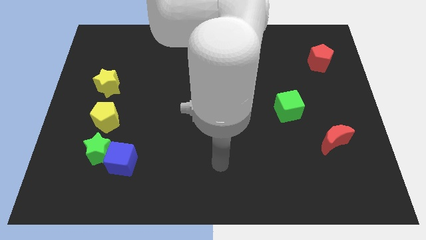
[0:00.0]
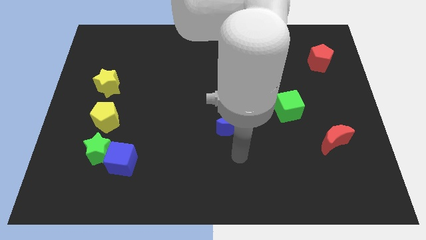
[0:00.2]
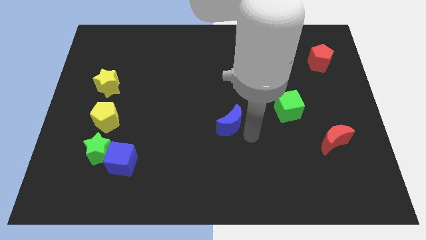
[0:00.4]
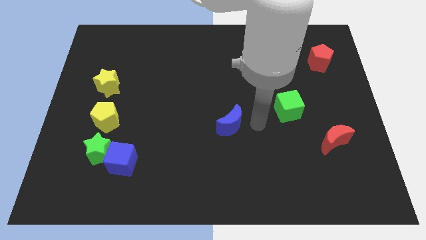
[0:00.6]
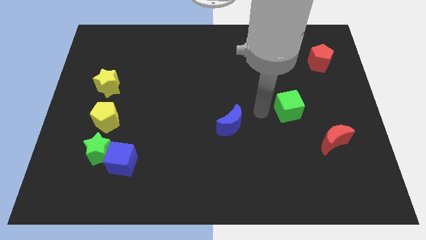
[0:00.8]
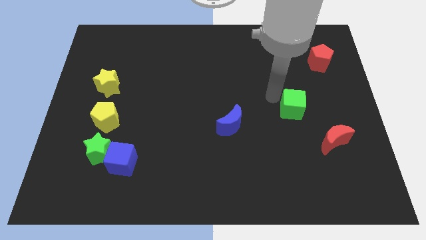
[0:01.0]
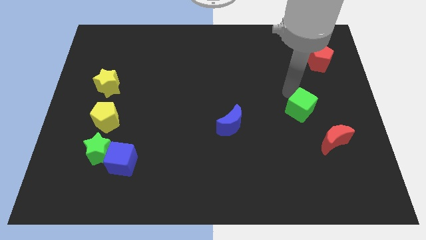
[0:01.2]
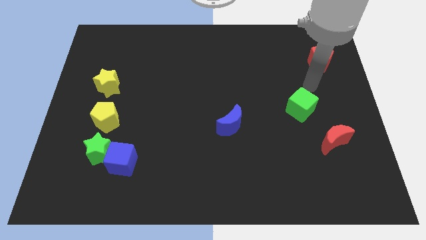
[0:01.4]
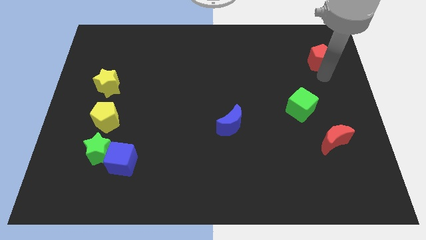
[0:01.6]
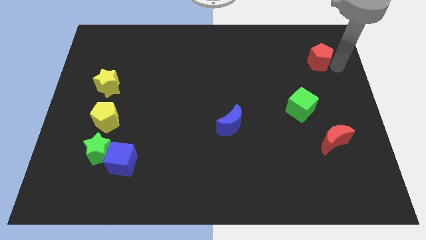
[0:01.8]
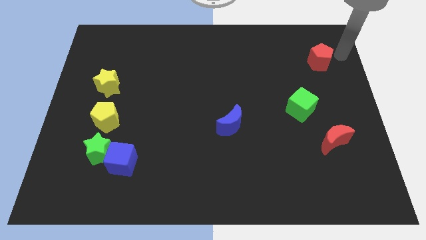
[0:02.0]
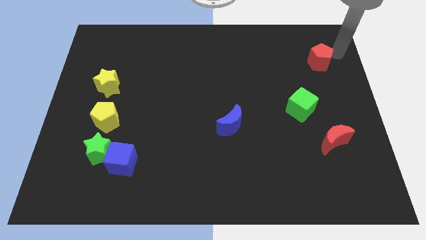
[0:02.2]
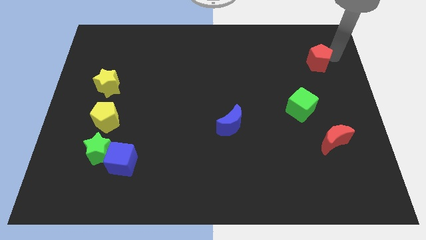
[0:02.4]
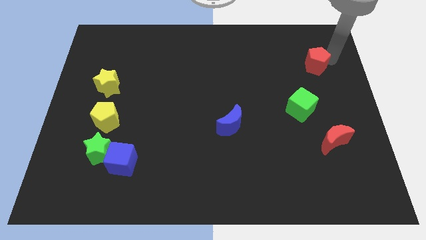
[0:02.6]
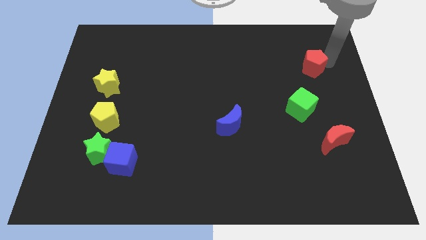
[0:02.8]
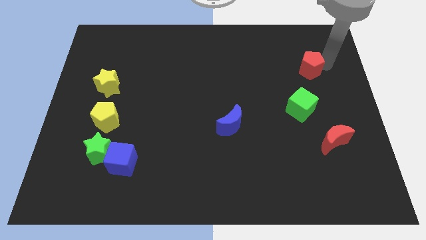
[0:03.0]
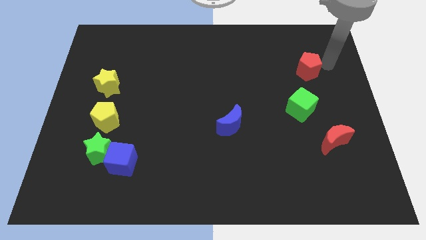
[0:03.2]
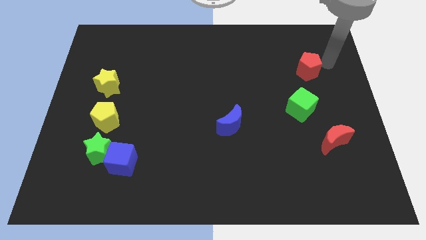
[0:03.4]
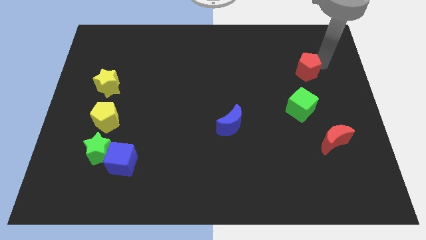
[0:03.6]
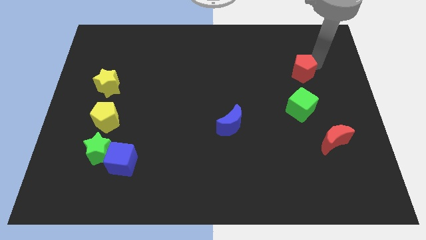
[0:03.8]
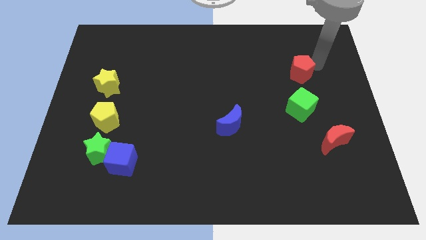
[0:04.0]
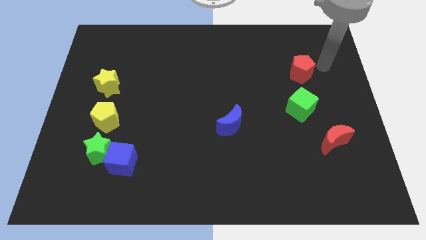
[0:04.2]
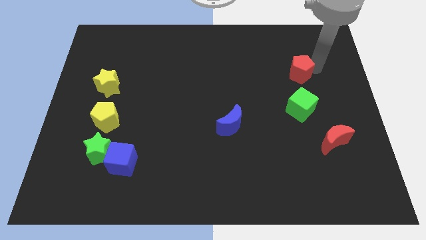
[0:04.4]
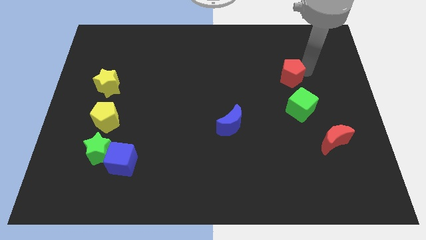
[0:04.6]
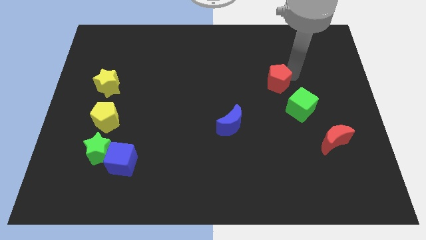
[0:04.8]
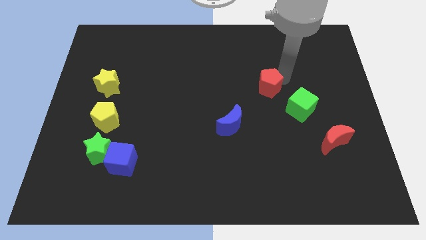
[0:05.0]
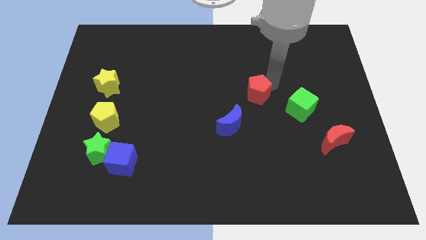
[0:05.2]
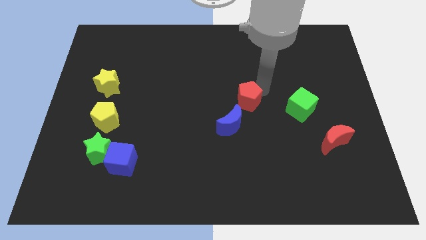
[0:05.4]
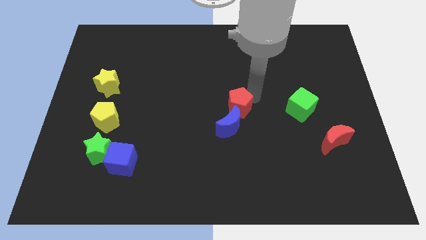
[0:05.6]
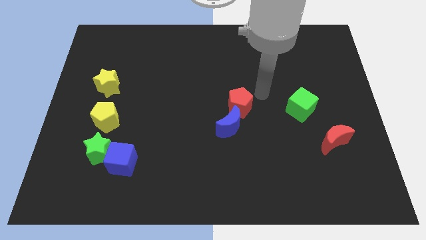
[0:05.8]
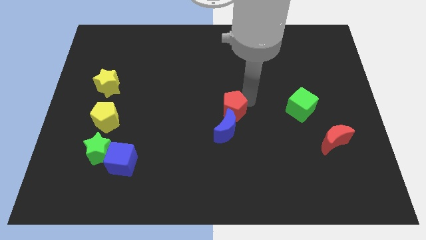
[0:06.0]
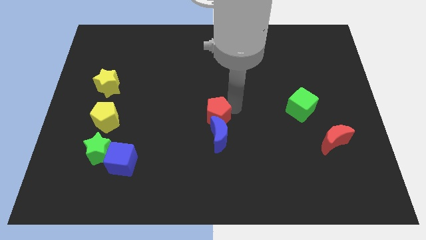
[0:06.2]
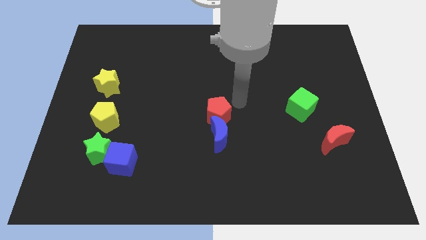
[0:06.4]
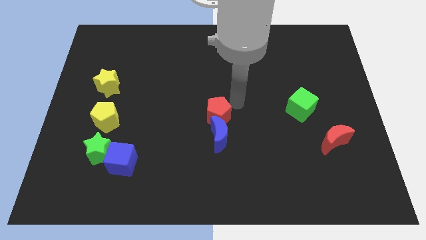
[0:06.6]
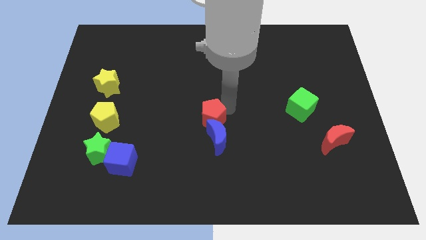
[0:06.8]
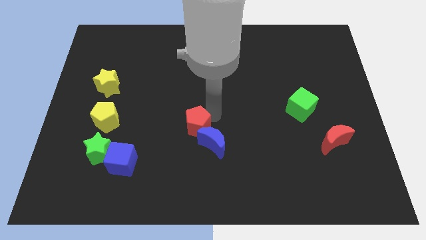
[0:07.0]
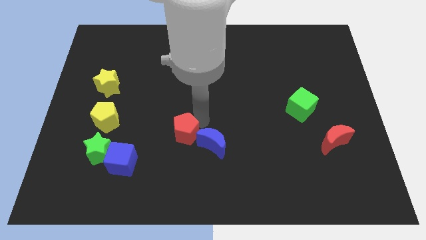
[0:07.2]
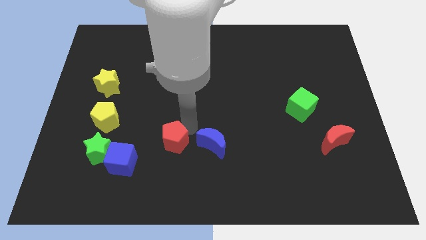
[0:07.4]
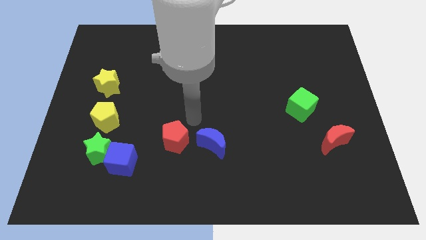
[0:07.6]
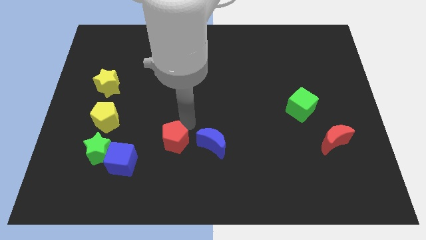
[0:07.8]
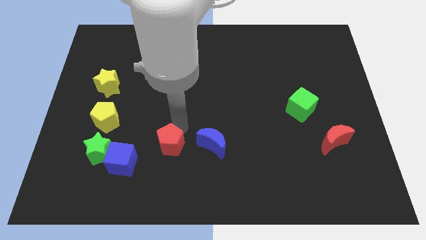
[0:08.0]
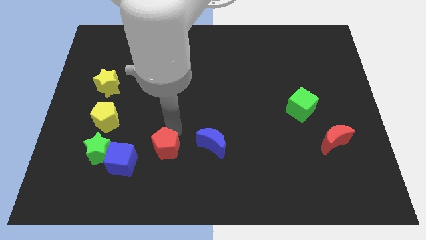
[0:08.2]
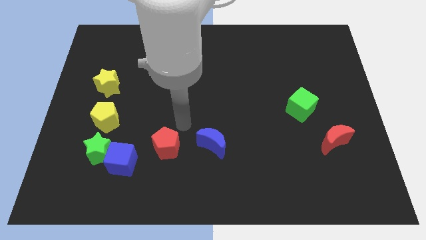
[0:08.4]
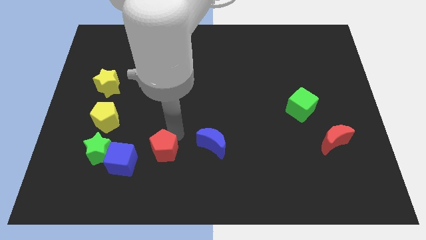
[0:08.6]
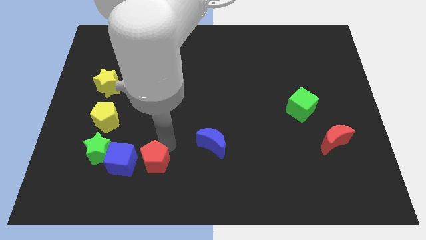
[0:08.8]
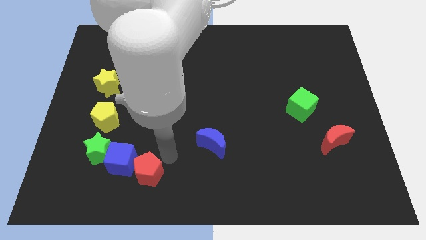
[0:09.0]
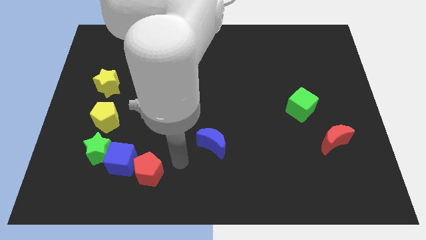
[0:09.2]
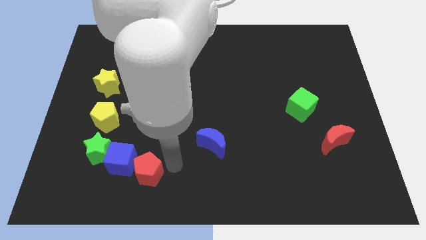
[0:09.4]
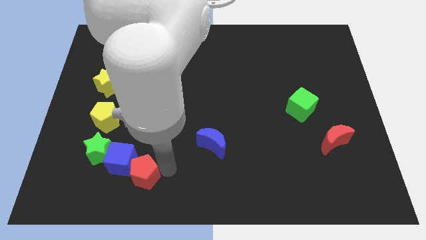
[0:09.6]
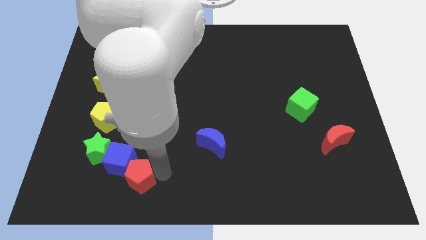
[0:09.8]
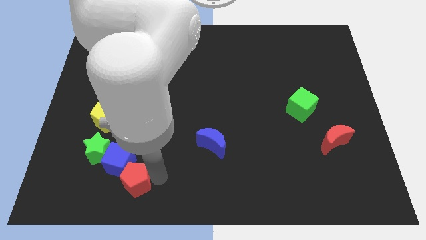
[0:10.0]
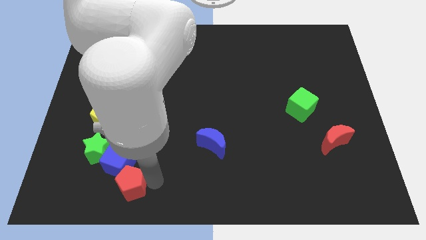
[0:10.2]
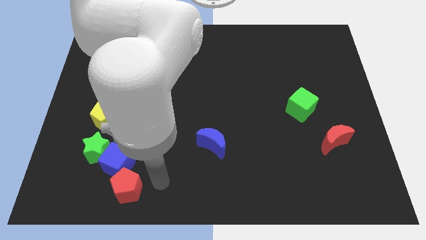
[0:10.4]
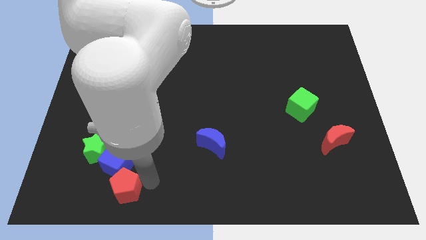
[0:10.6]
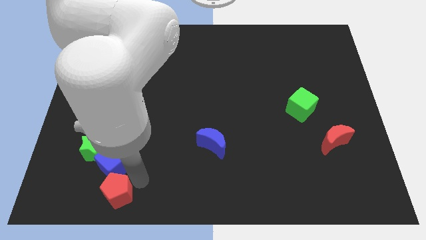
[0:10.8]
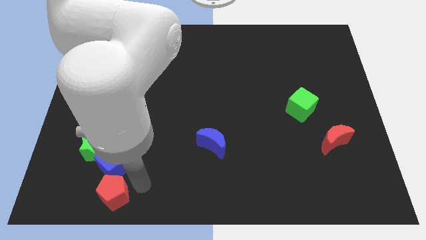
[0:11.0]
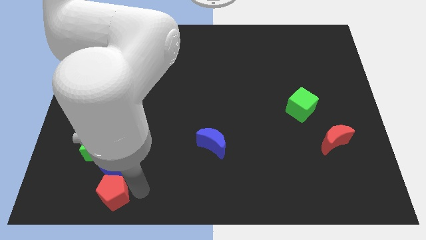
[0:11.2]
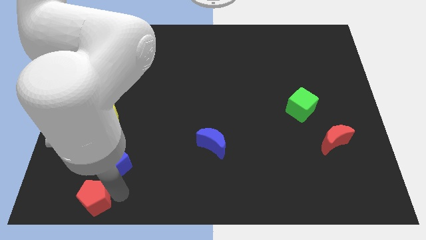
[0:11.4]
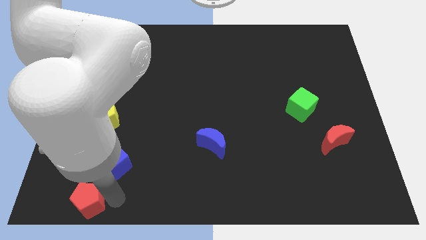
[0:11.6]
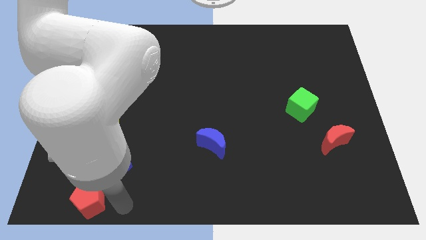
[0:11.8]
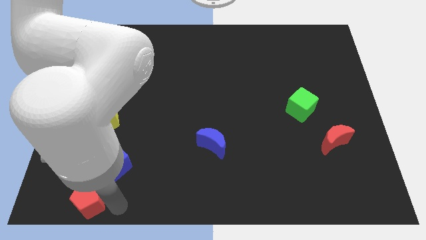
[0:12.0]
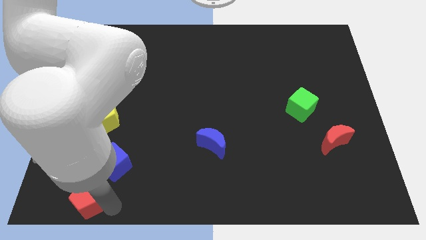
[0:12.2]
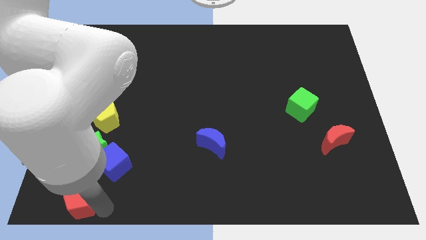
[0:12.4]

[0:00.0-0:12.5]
put the red pentagon to the bottom left of the board
